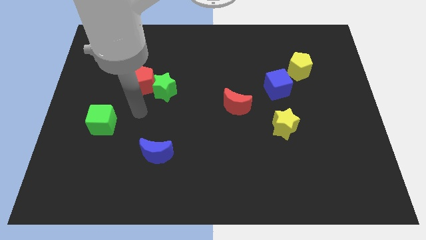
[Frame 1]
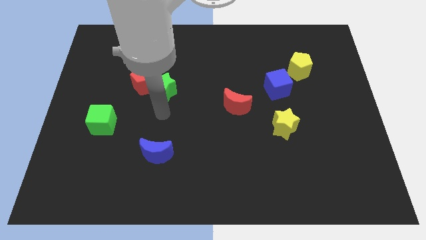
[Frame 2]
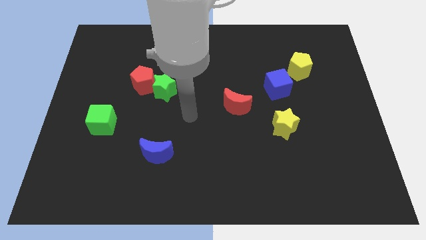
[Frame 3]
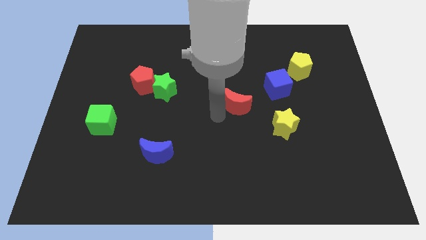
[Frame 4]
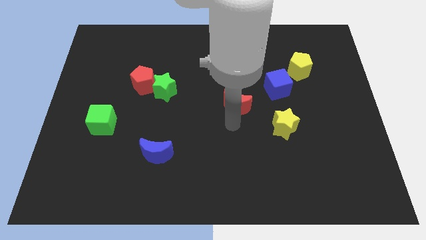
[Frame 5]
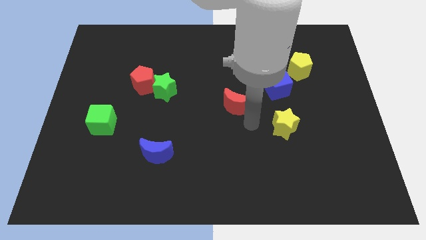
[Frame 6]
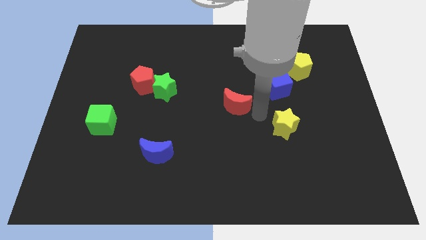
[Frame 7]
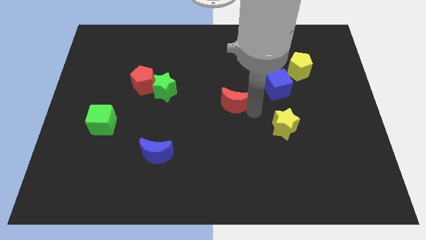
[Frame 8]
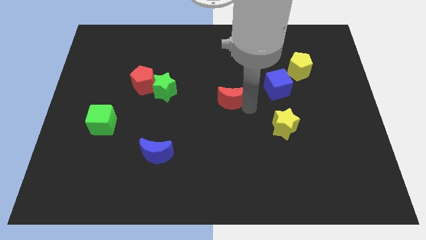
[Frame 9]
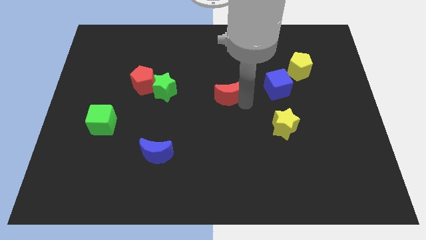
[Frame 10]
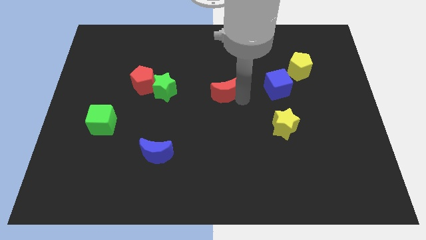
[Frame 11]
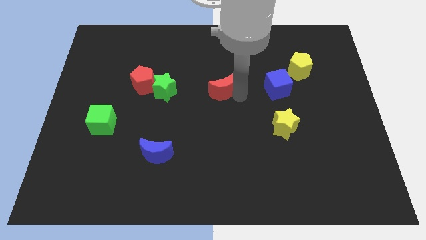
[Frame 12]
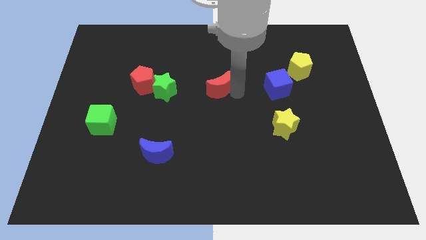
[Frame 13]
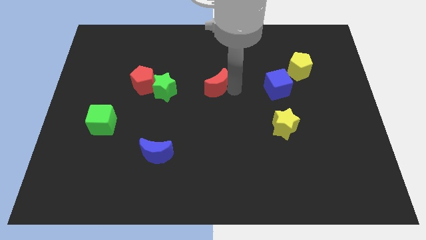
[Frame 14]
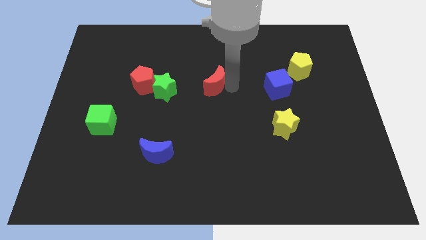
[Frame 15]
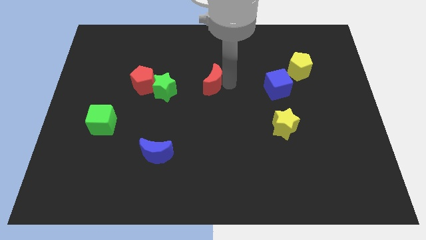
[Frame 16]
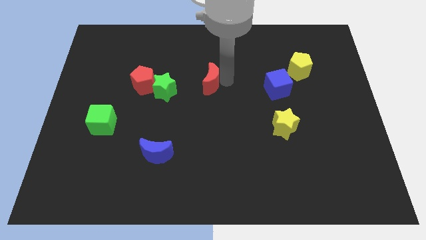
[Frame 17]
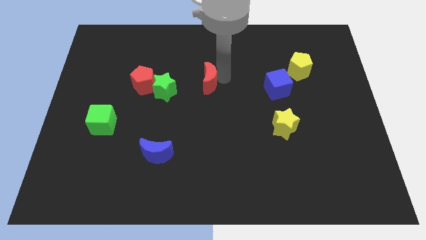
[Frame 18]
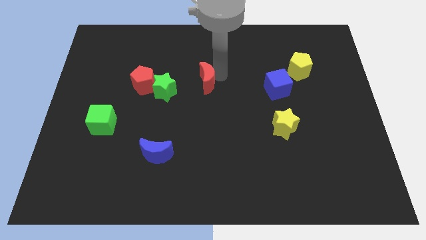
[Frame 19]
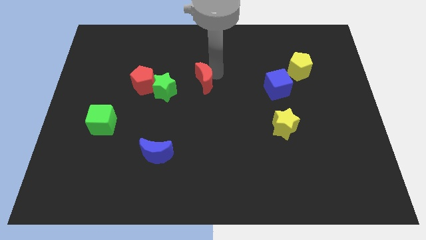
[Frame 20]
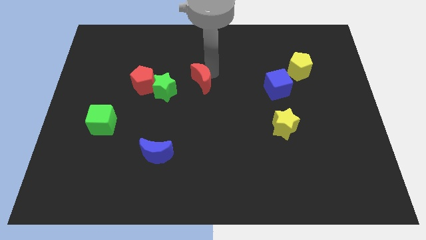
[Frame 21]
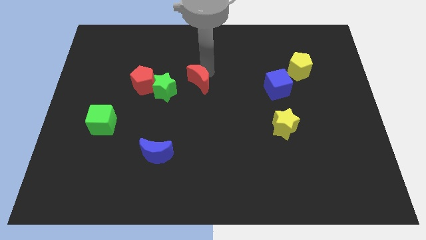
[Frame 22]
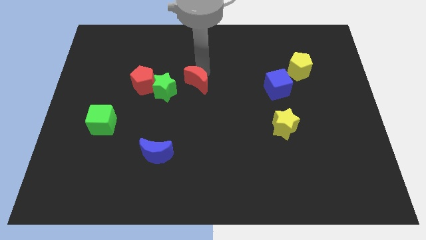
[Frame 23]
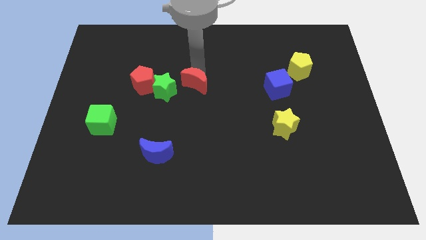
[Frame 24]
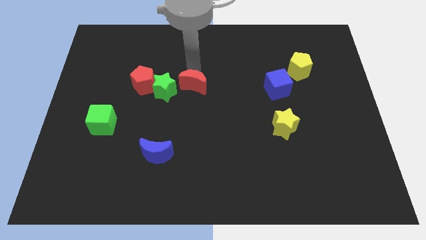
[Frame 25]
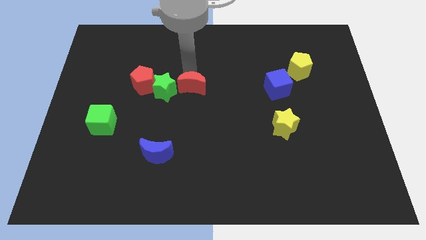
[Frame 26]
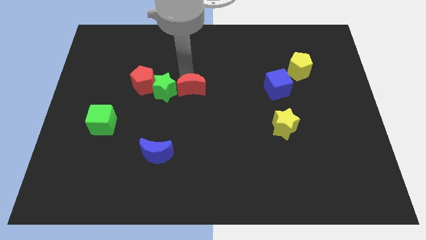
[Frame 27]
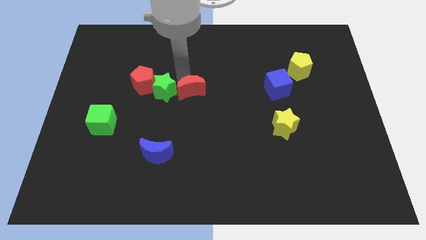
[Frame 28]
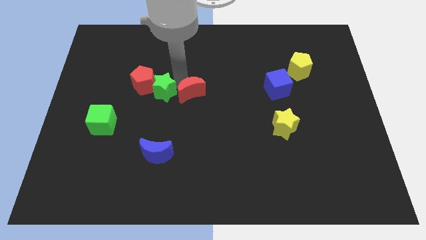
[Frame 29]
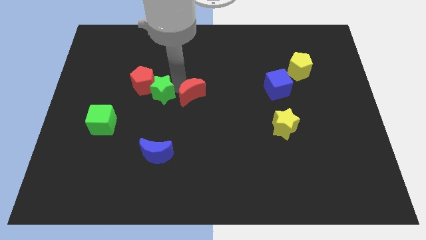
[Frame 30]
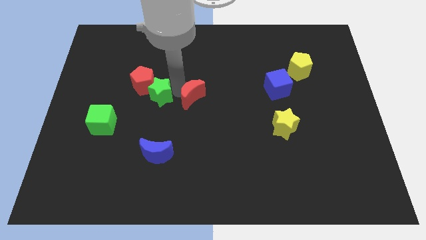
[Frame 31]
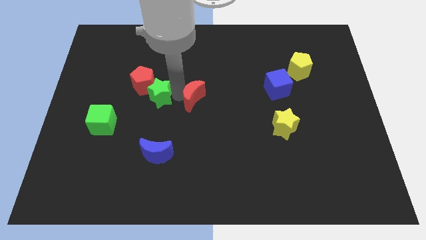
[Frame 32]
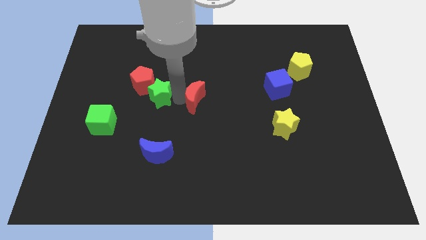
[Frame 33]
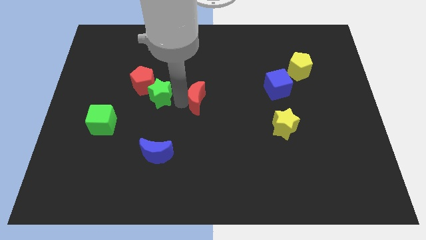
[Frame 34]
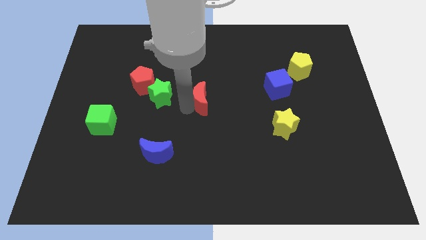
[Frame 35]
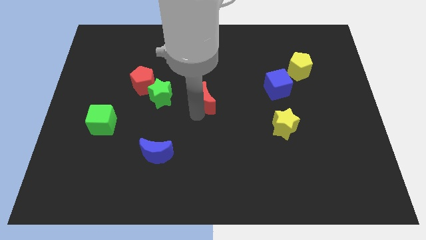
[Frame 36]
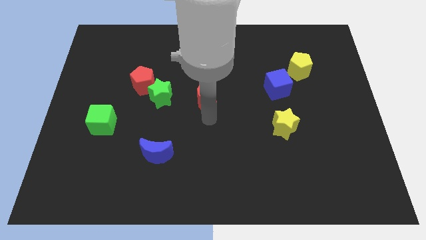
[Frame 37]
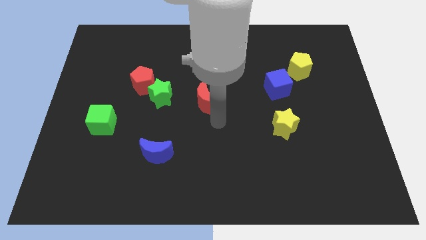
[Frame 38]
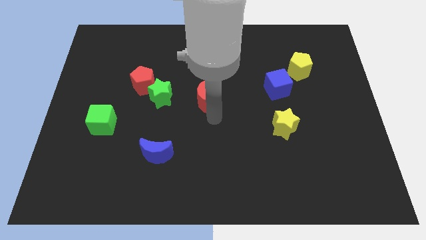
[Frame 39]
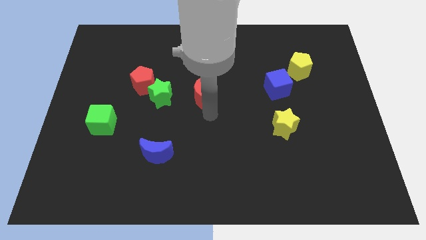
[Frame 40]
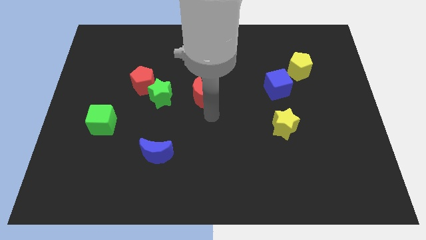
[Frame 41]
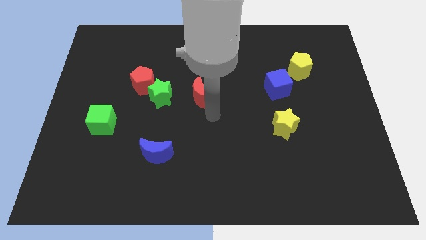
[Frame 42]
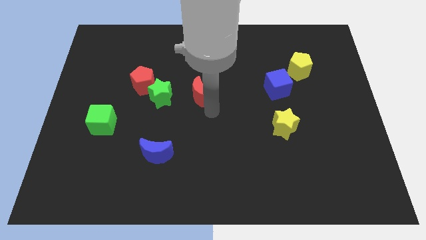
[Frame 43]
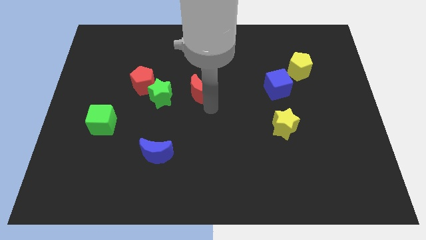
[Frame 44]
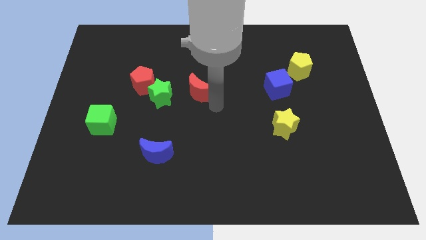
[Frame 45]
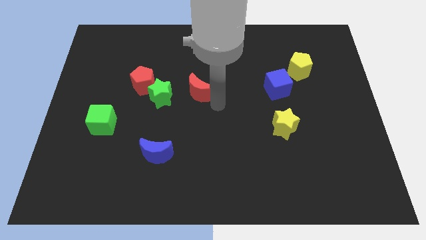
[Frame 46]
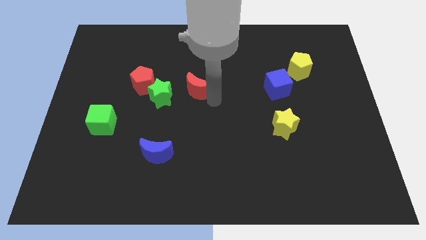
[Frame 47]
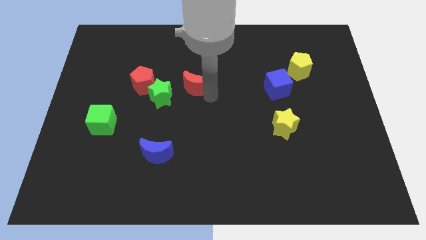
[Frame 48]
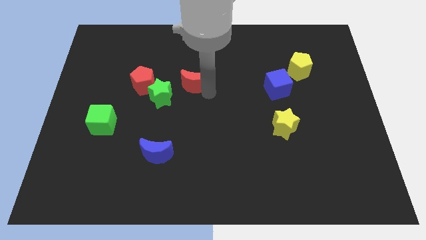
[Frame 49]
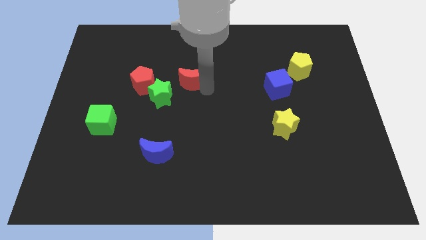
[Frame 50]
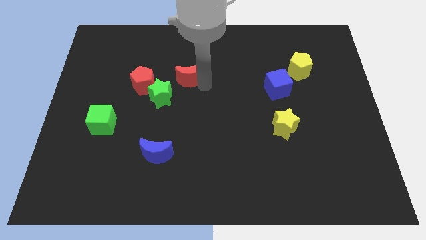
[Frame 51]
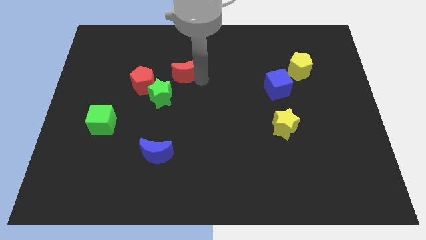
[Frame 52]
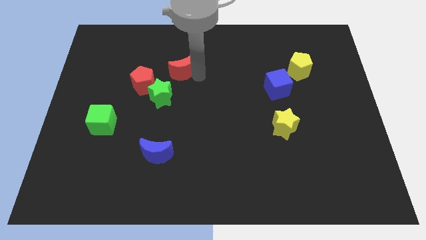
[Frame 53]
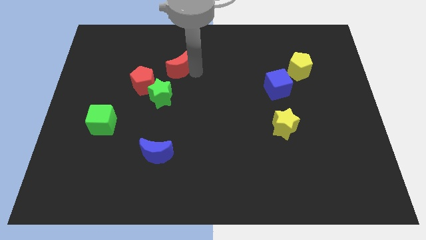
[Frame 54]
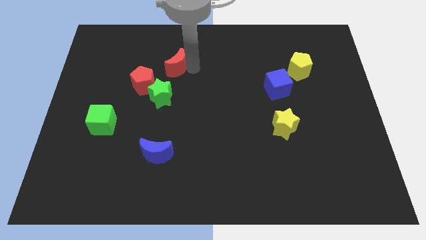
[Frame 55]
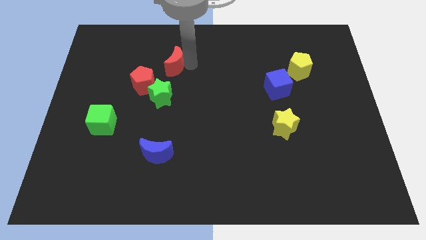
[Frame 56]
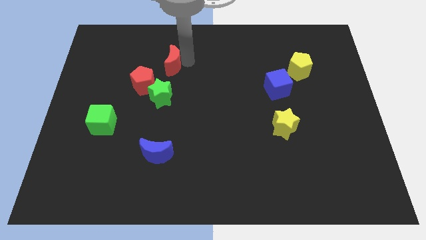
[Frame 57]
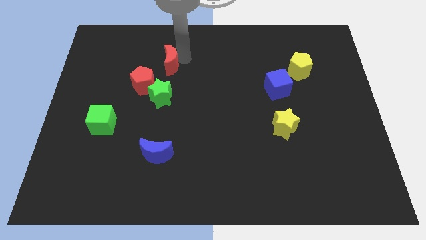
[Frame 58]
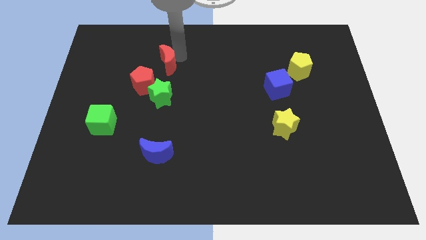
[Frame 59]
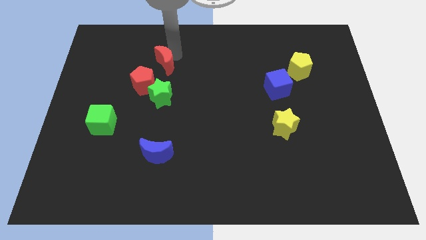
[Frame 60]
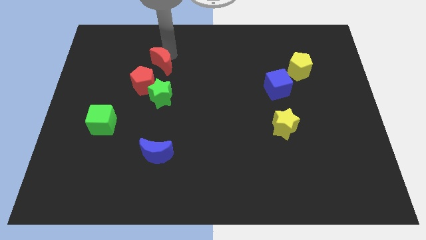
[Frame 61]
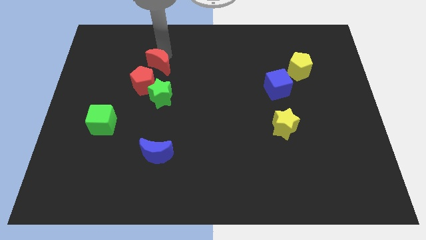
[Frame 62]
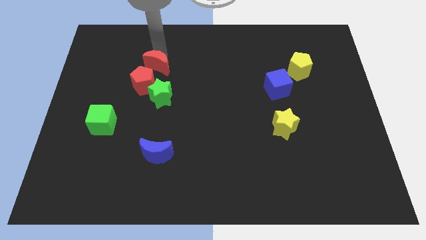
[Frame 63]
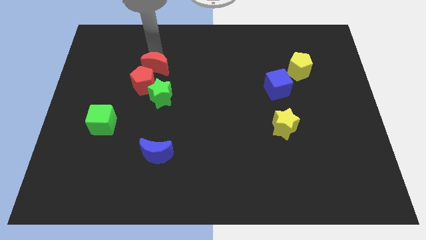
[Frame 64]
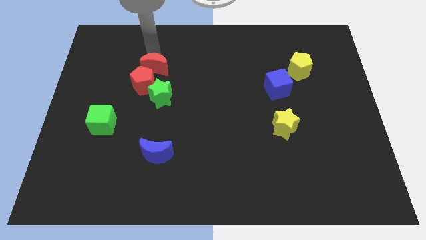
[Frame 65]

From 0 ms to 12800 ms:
push the red moon towards the red pentagon

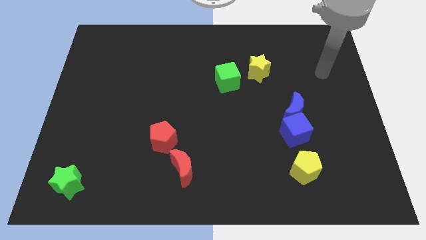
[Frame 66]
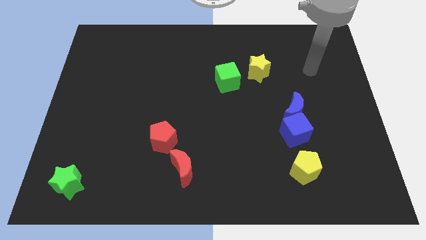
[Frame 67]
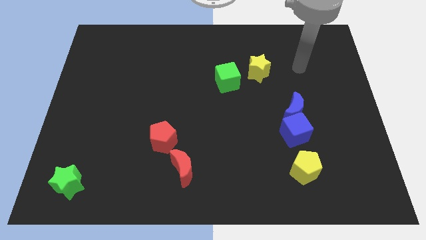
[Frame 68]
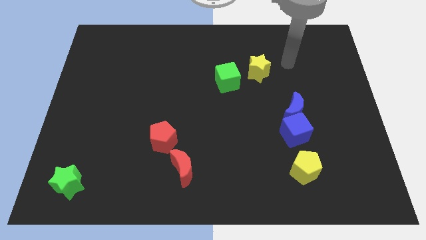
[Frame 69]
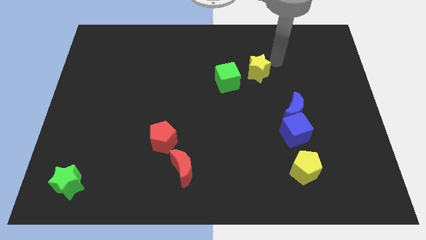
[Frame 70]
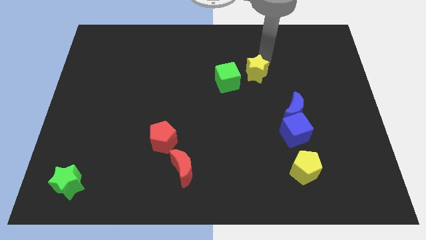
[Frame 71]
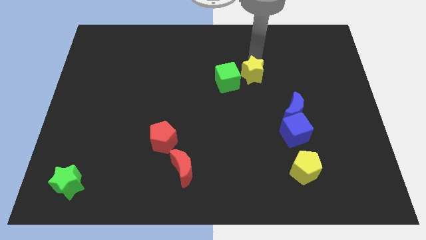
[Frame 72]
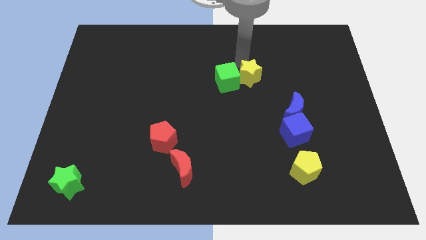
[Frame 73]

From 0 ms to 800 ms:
move the green cube towards the yellow star
